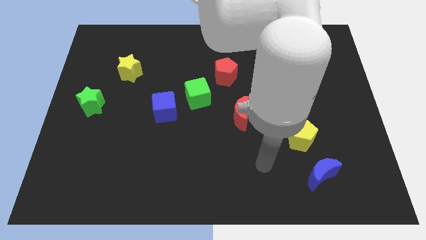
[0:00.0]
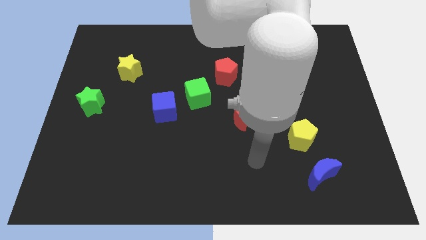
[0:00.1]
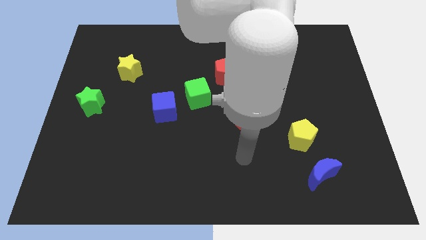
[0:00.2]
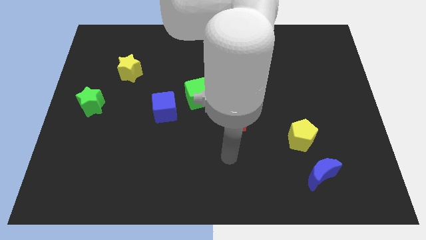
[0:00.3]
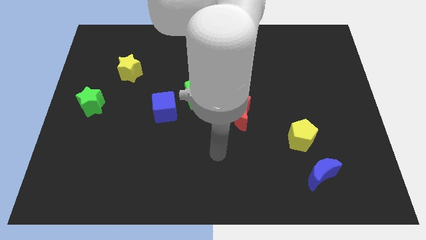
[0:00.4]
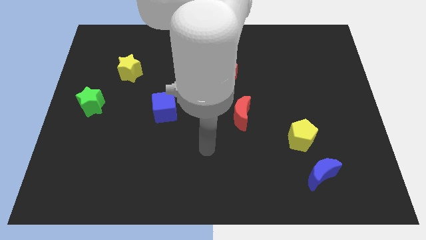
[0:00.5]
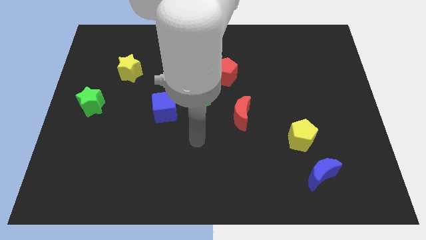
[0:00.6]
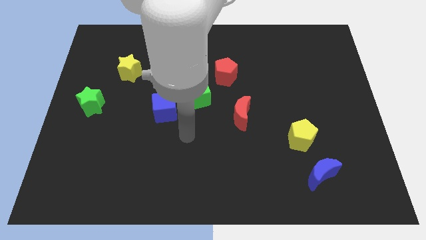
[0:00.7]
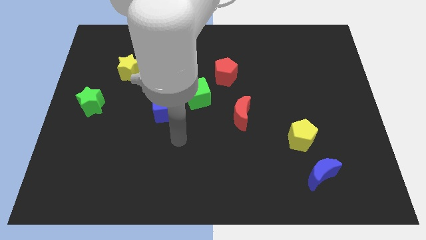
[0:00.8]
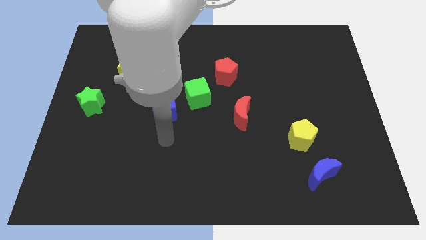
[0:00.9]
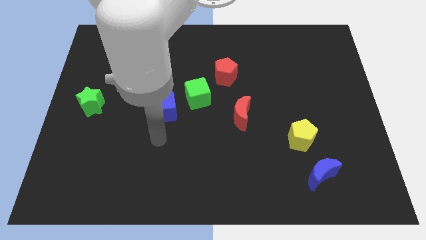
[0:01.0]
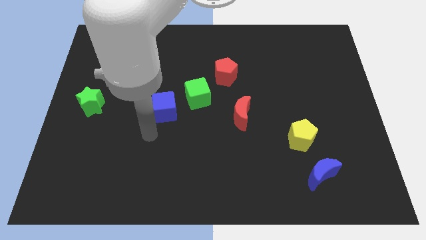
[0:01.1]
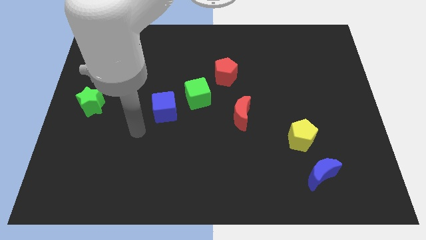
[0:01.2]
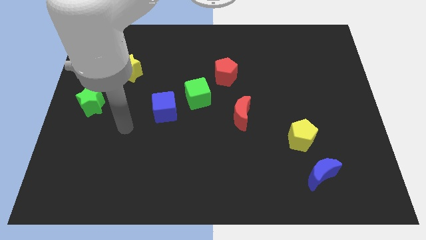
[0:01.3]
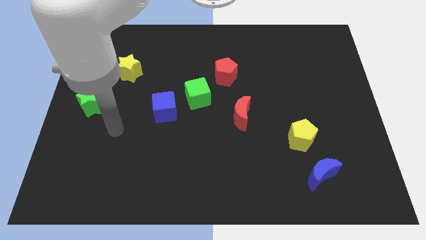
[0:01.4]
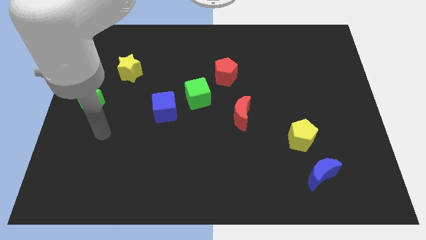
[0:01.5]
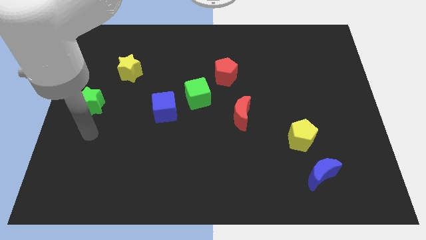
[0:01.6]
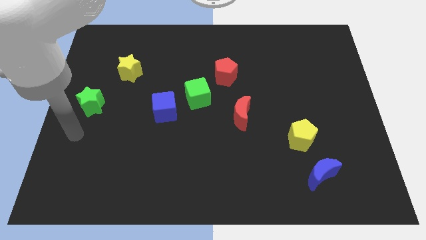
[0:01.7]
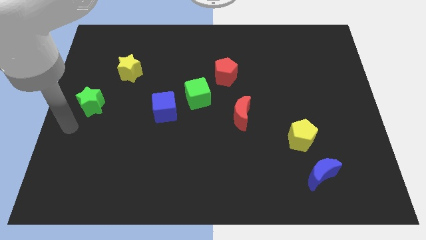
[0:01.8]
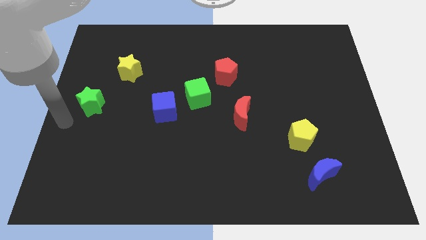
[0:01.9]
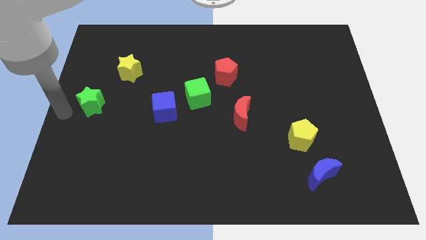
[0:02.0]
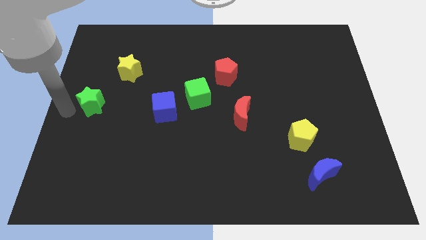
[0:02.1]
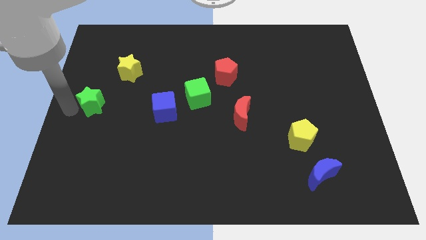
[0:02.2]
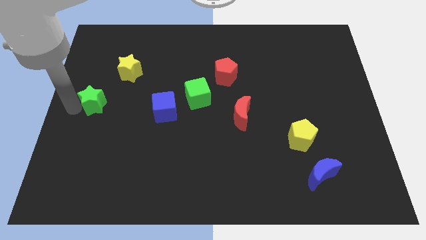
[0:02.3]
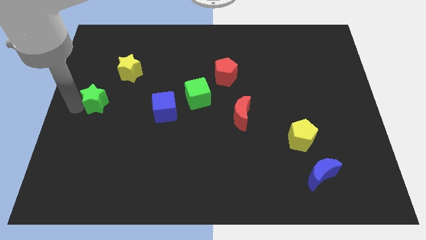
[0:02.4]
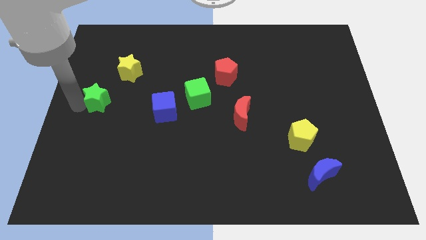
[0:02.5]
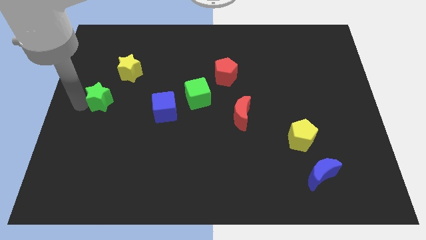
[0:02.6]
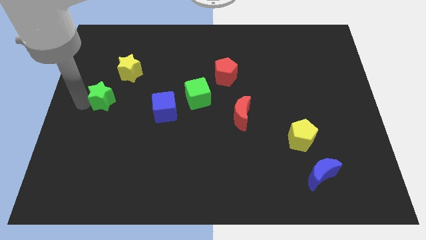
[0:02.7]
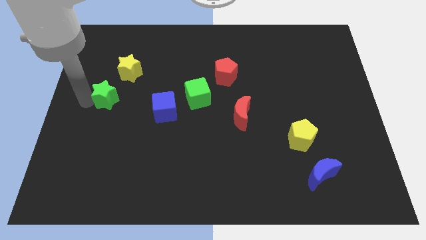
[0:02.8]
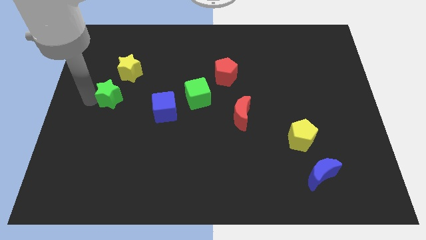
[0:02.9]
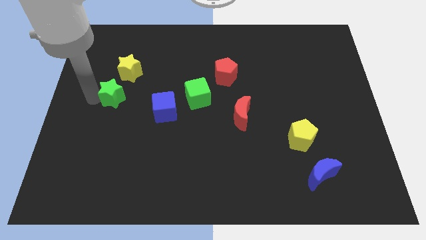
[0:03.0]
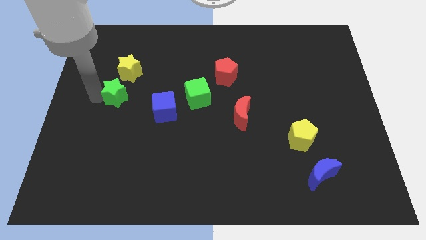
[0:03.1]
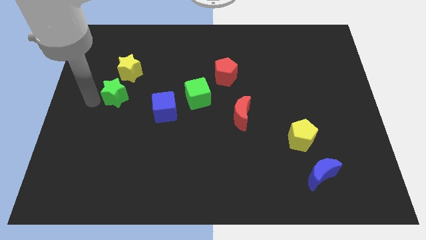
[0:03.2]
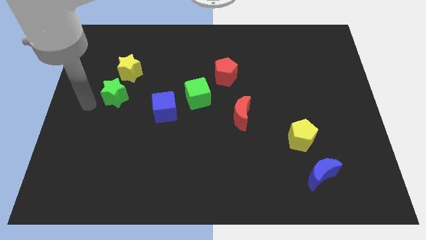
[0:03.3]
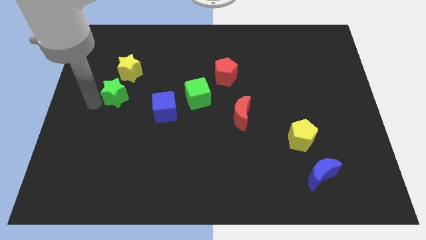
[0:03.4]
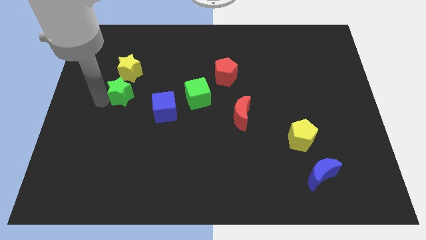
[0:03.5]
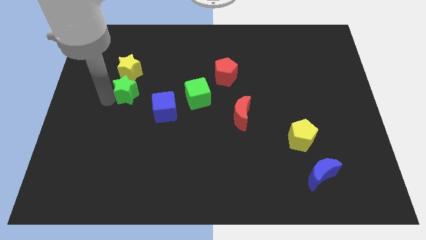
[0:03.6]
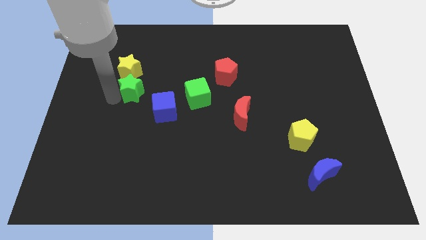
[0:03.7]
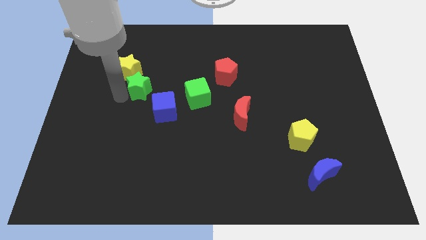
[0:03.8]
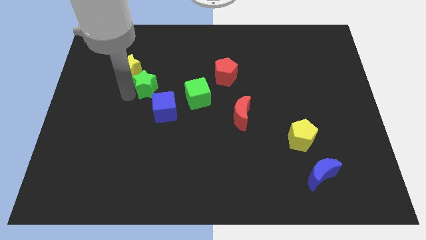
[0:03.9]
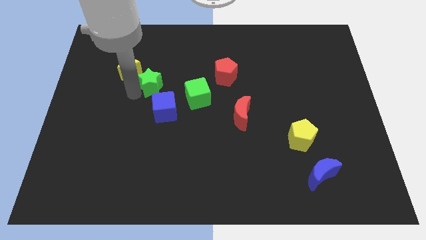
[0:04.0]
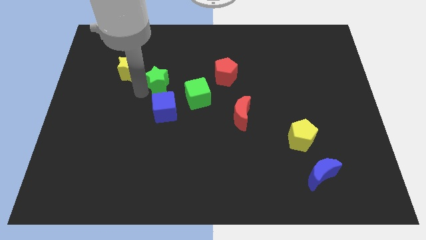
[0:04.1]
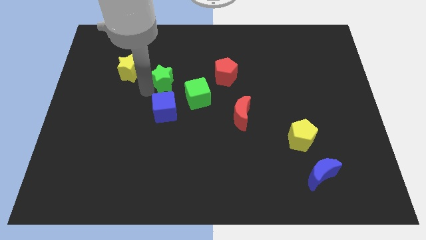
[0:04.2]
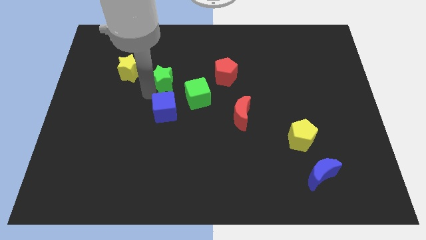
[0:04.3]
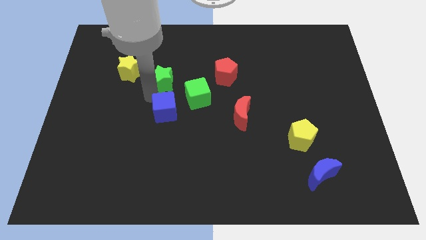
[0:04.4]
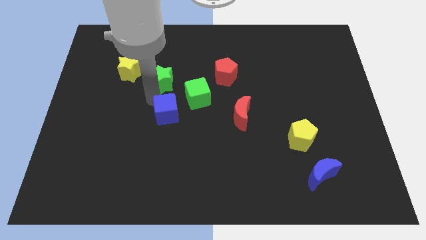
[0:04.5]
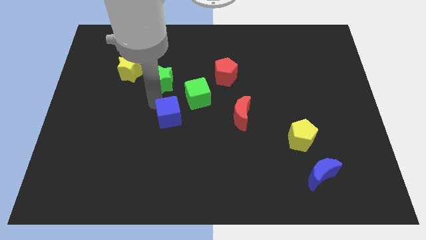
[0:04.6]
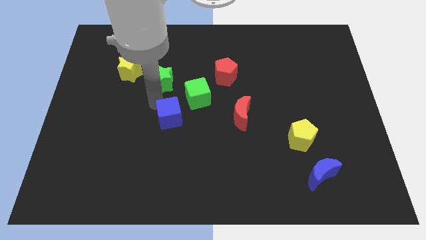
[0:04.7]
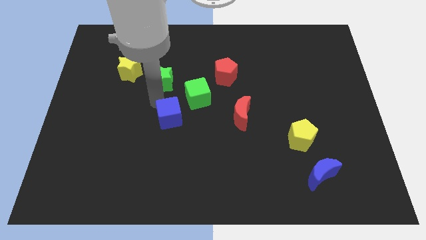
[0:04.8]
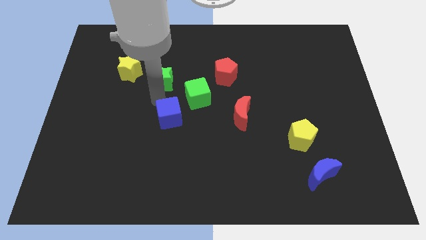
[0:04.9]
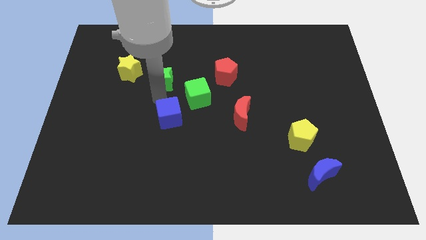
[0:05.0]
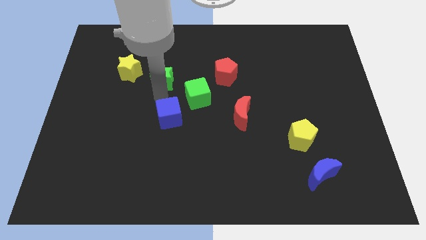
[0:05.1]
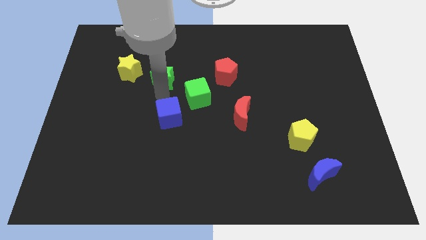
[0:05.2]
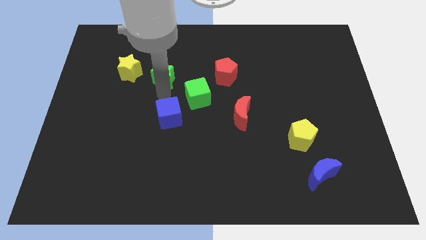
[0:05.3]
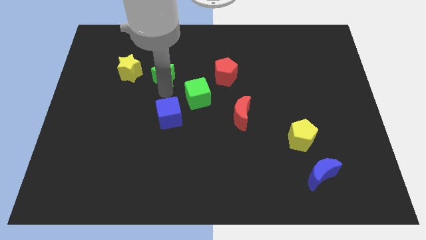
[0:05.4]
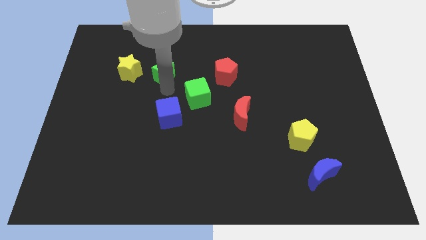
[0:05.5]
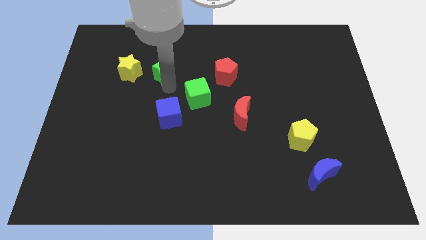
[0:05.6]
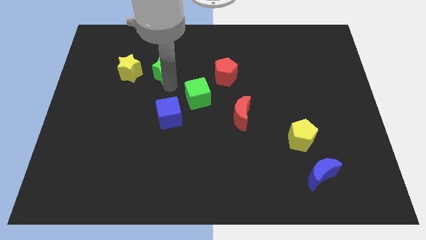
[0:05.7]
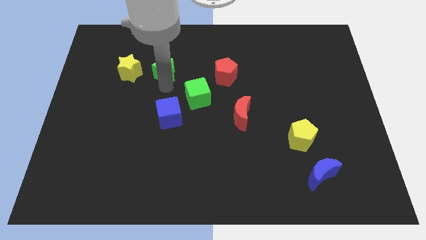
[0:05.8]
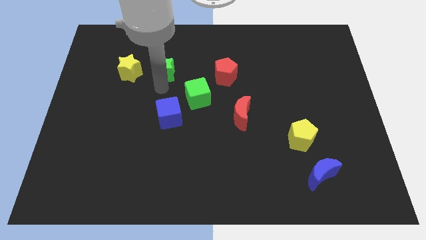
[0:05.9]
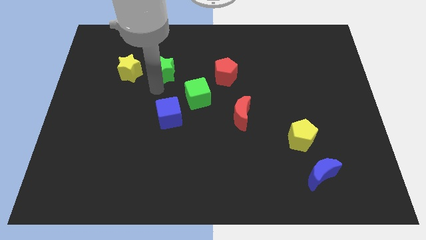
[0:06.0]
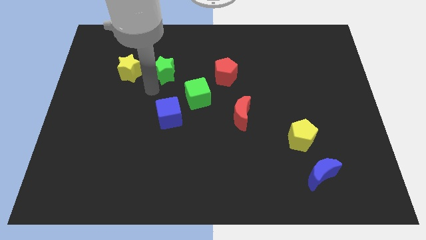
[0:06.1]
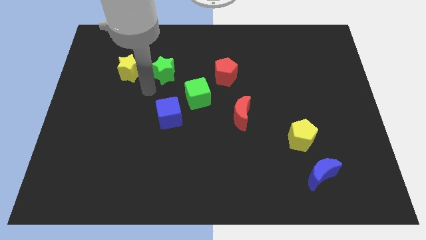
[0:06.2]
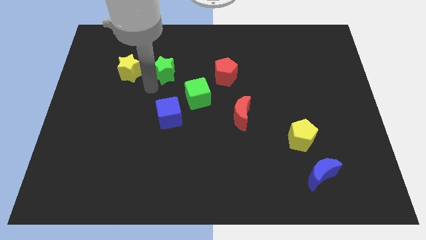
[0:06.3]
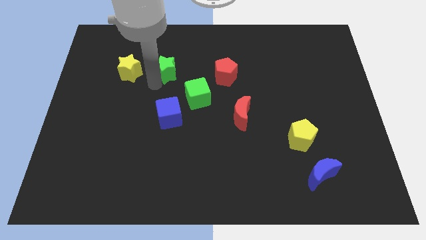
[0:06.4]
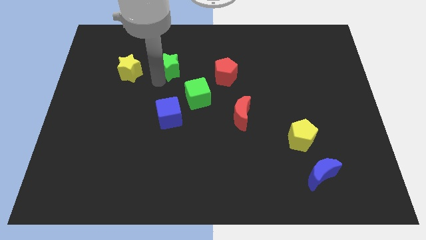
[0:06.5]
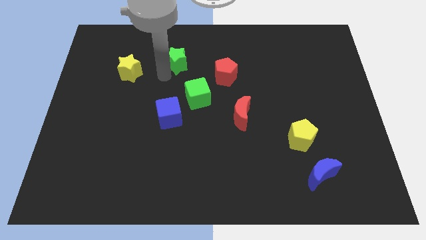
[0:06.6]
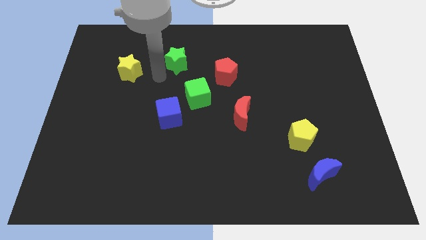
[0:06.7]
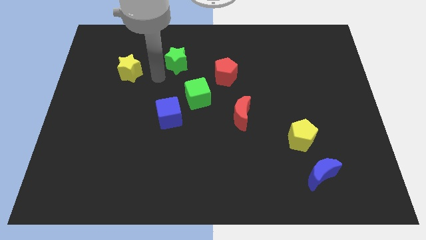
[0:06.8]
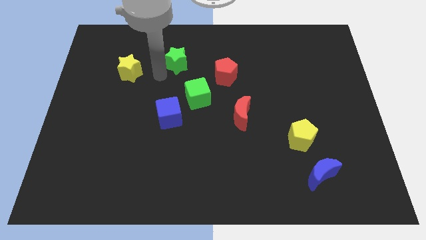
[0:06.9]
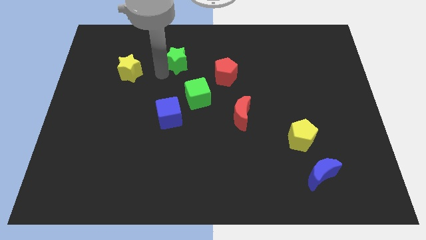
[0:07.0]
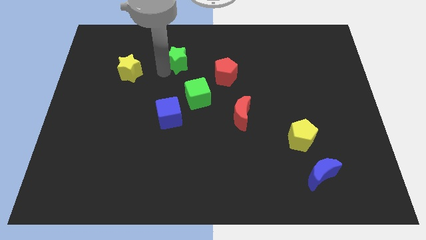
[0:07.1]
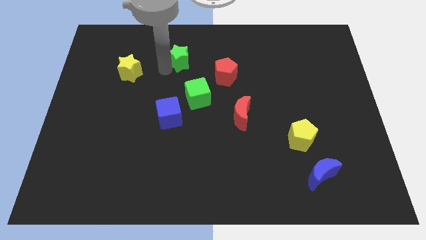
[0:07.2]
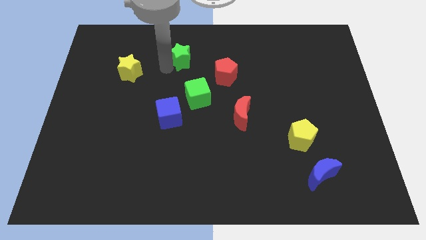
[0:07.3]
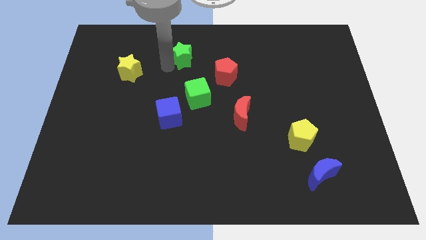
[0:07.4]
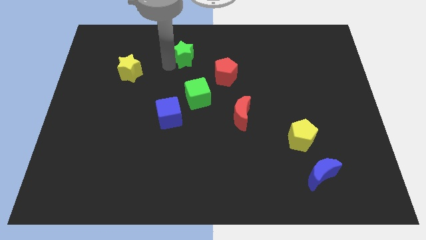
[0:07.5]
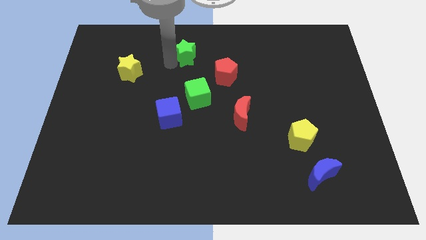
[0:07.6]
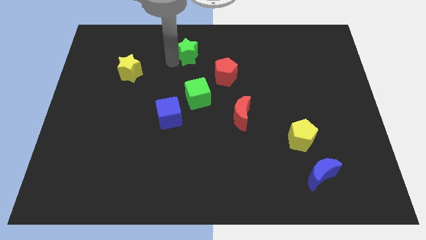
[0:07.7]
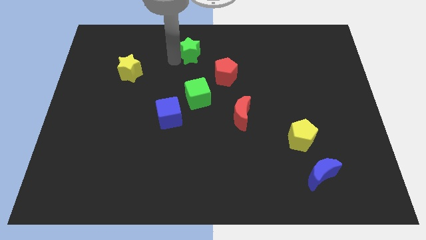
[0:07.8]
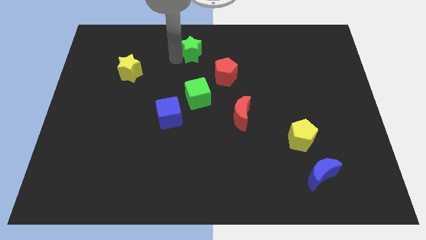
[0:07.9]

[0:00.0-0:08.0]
push the green star to the towards your base
